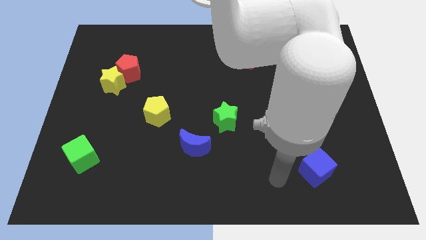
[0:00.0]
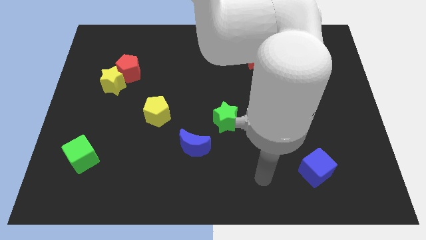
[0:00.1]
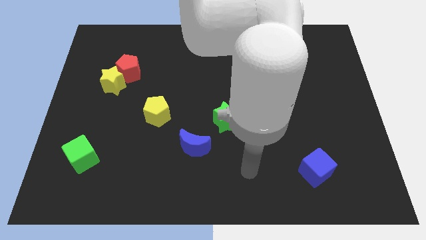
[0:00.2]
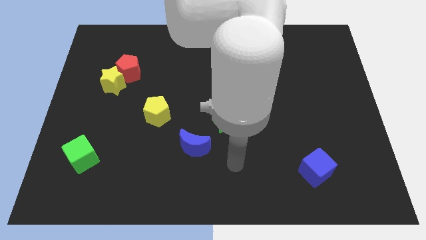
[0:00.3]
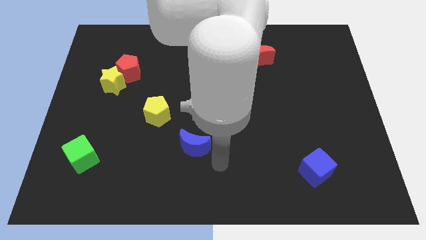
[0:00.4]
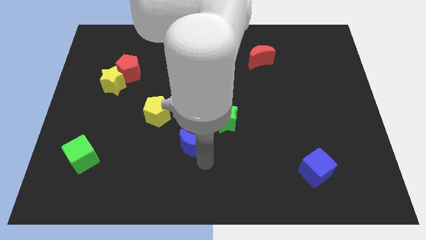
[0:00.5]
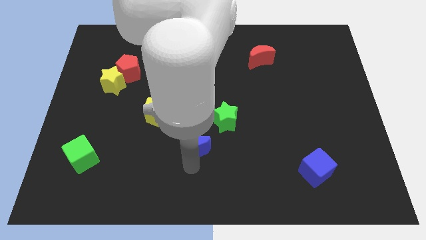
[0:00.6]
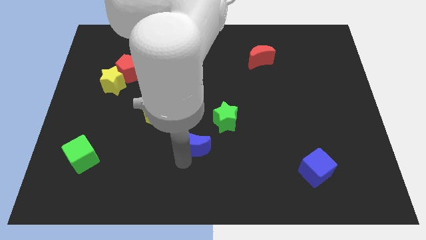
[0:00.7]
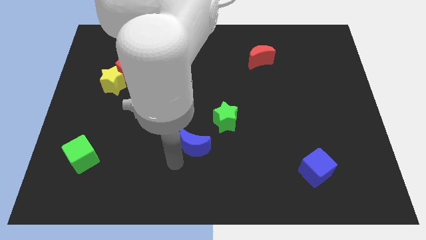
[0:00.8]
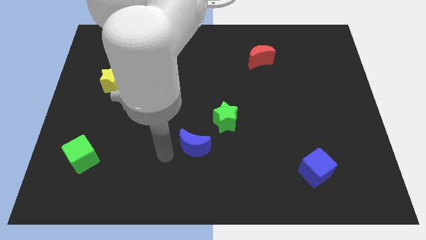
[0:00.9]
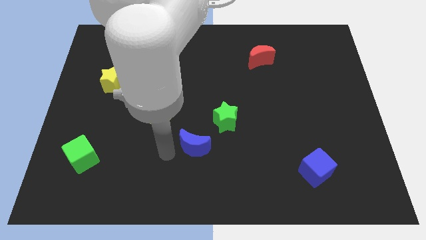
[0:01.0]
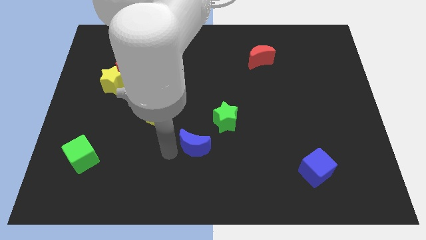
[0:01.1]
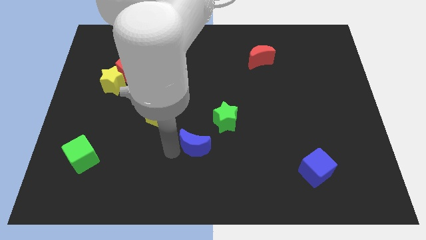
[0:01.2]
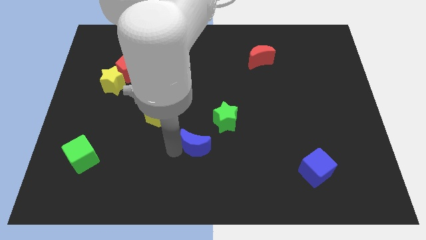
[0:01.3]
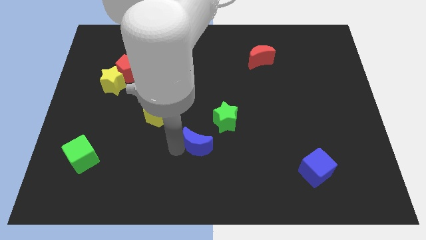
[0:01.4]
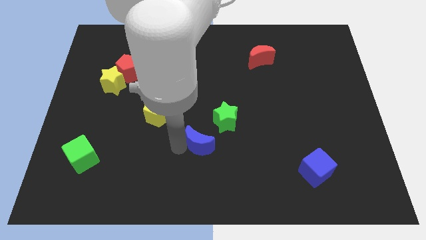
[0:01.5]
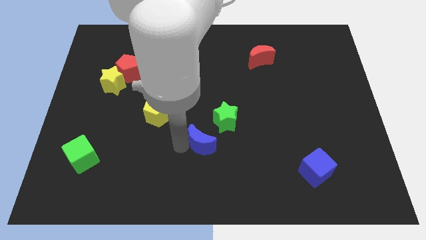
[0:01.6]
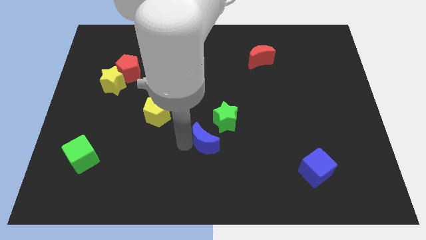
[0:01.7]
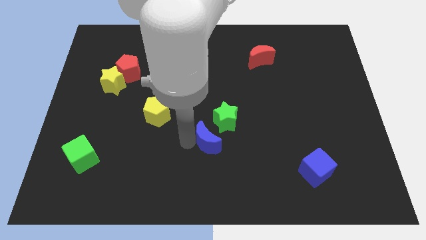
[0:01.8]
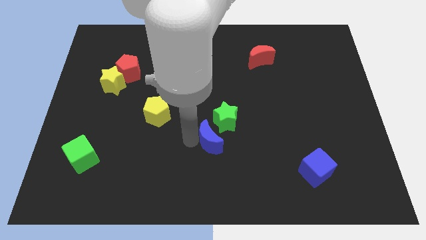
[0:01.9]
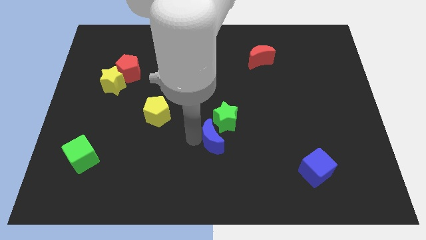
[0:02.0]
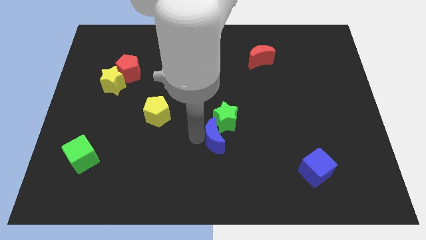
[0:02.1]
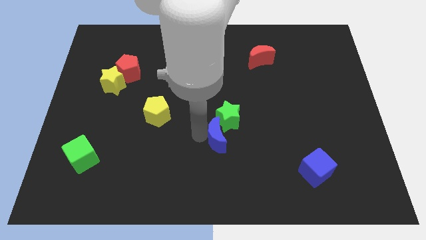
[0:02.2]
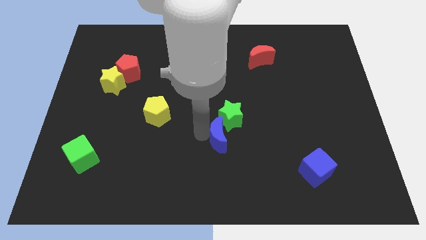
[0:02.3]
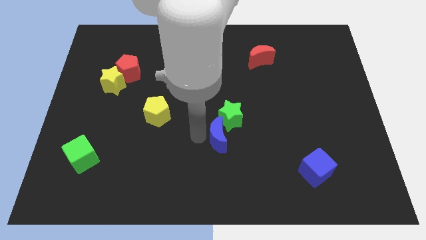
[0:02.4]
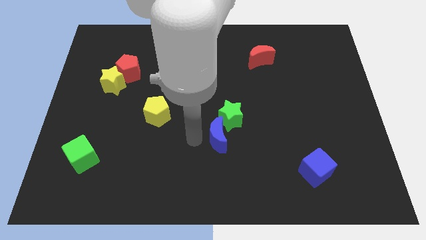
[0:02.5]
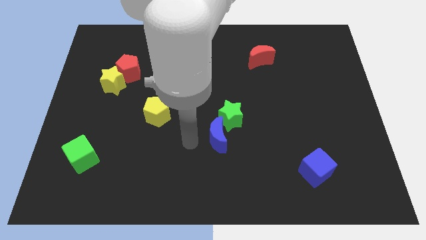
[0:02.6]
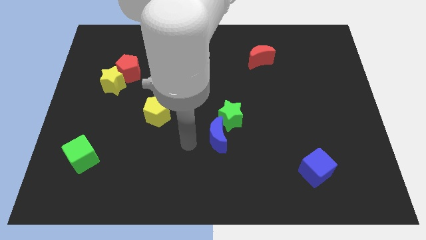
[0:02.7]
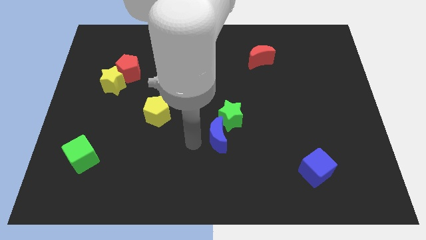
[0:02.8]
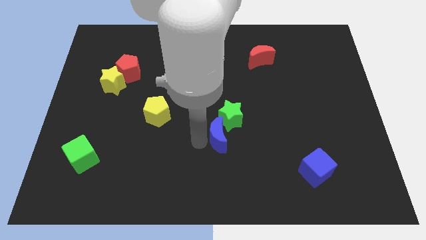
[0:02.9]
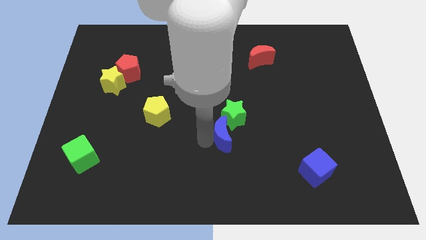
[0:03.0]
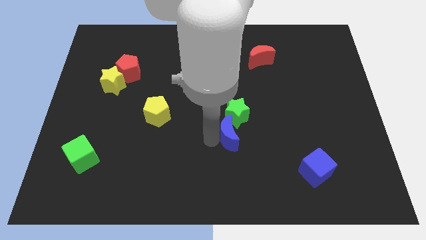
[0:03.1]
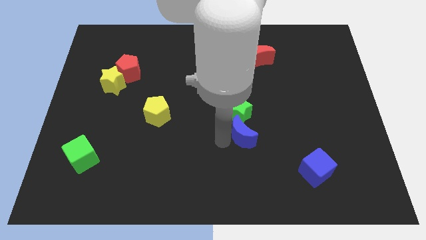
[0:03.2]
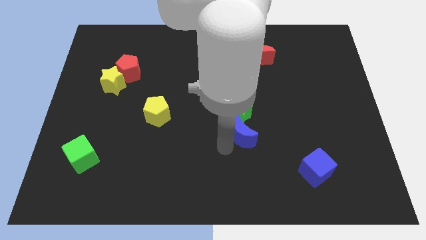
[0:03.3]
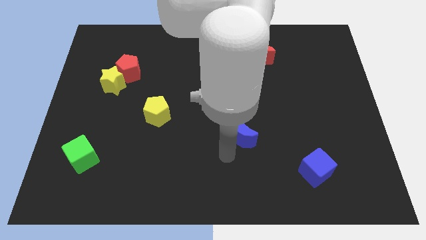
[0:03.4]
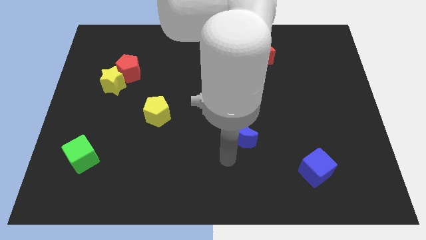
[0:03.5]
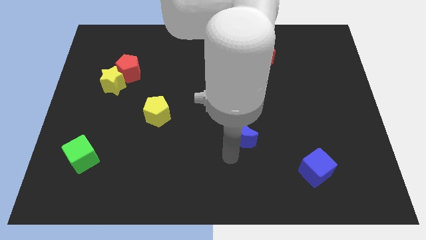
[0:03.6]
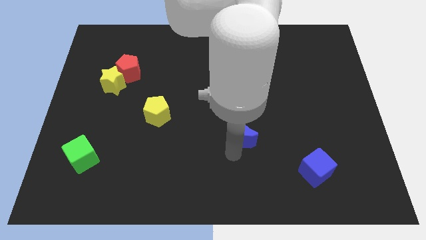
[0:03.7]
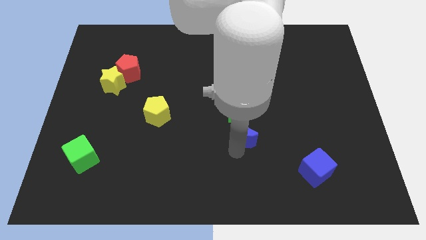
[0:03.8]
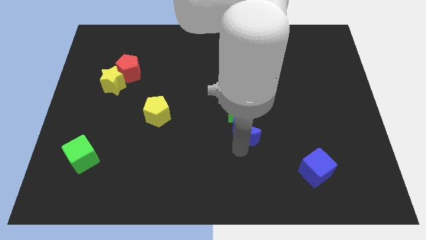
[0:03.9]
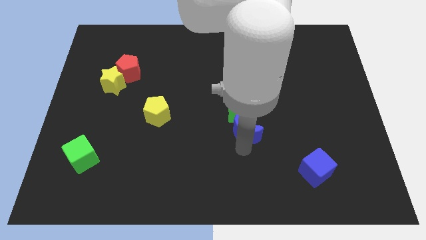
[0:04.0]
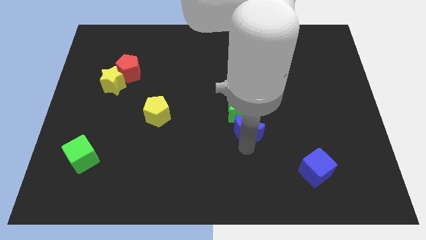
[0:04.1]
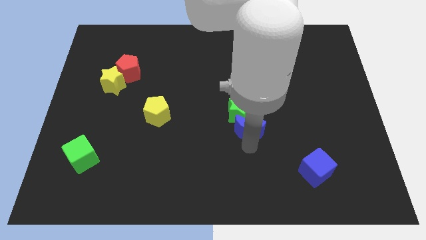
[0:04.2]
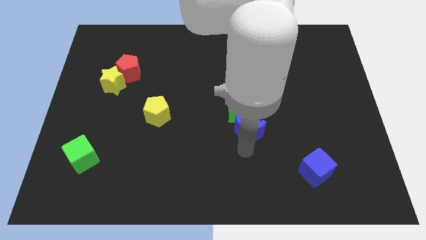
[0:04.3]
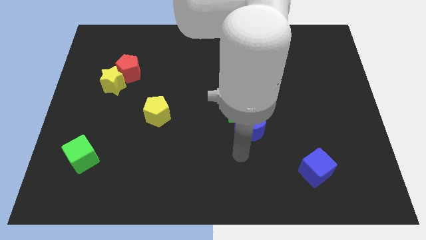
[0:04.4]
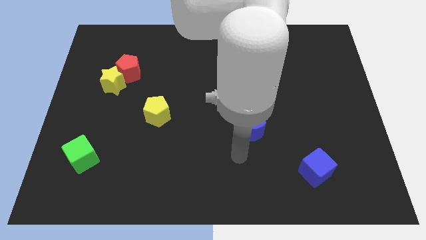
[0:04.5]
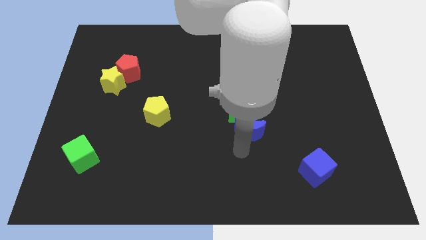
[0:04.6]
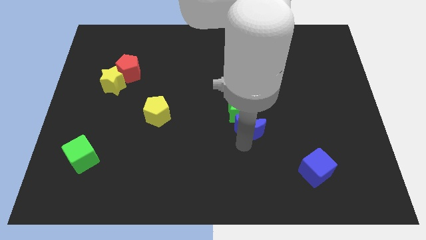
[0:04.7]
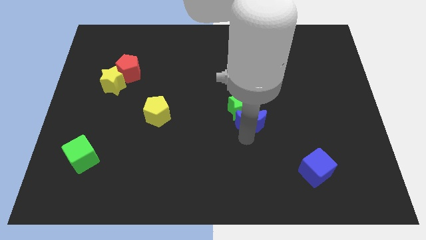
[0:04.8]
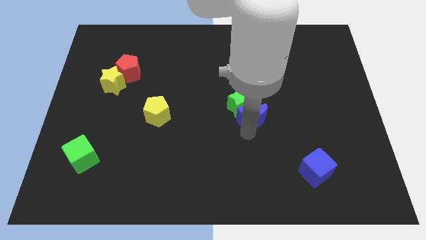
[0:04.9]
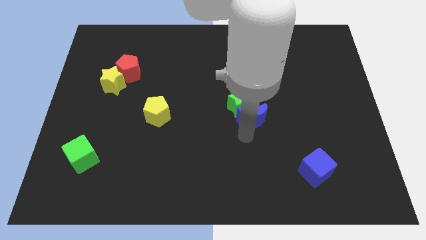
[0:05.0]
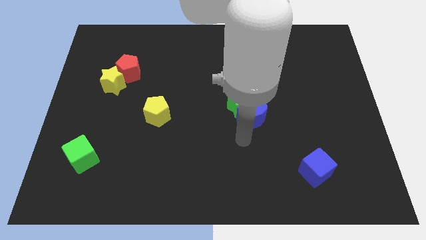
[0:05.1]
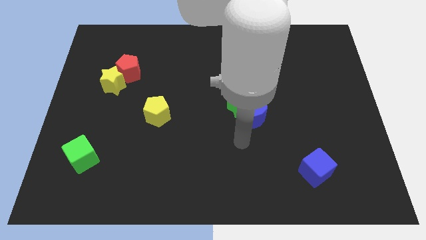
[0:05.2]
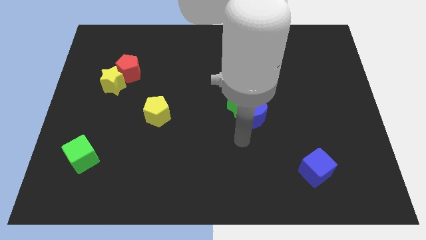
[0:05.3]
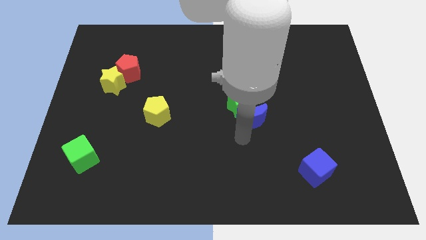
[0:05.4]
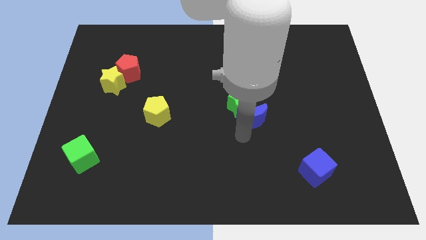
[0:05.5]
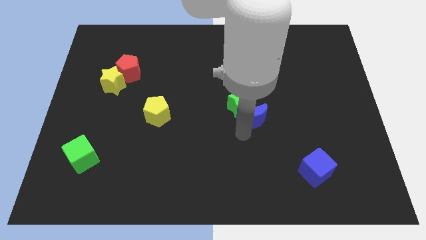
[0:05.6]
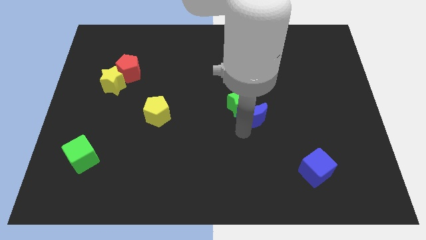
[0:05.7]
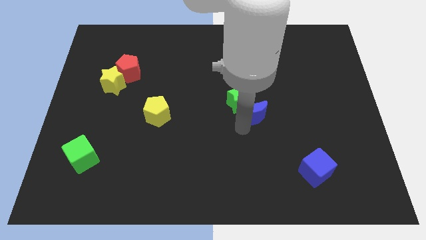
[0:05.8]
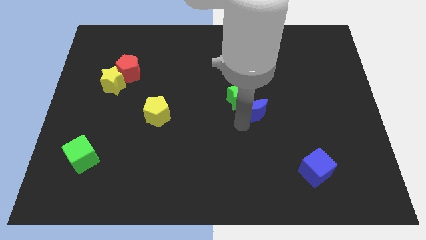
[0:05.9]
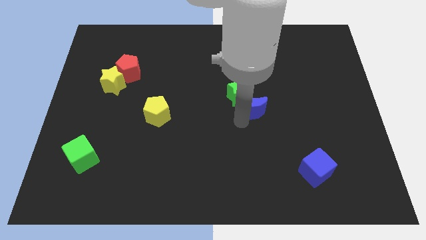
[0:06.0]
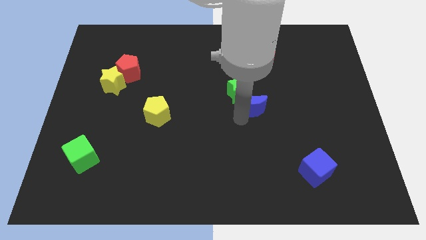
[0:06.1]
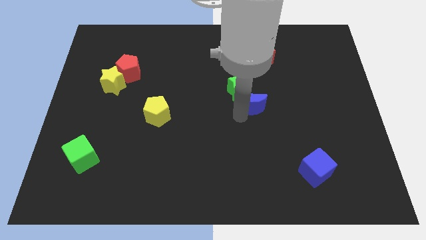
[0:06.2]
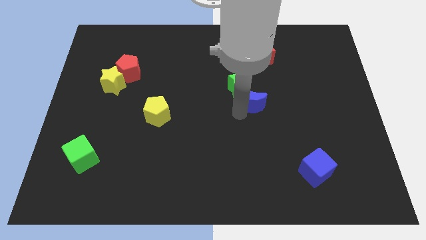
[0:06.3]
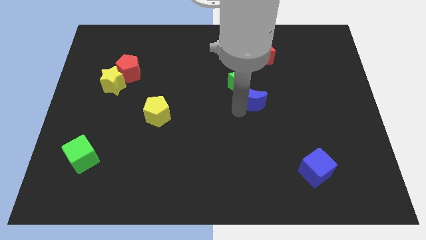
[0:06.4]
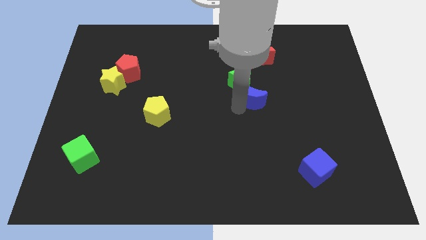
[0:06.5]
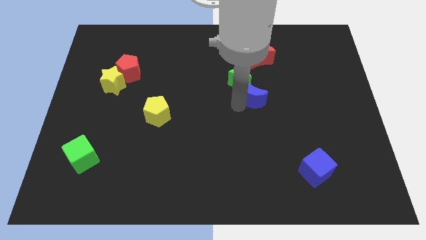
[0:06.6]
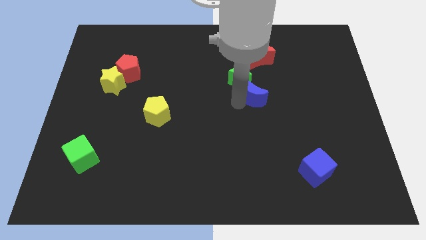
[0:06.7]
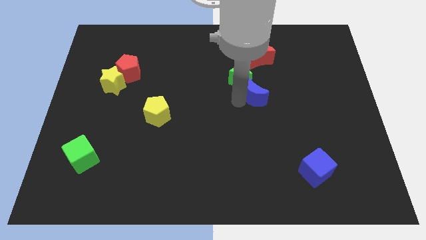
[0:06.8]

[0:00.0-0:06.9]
move the blue moon upwards and then right

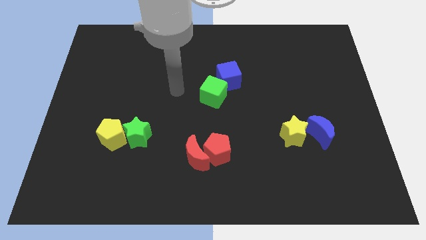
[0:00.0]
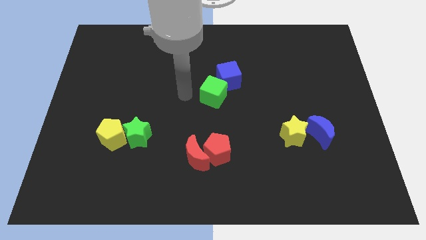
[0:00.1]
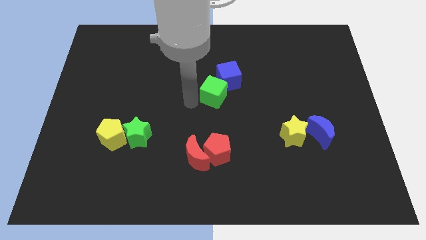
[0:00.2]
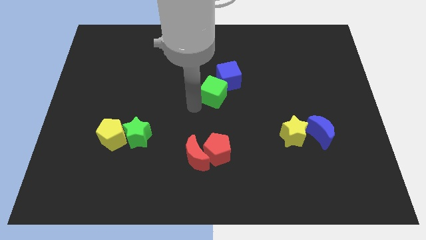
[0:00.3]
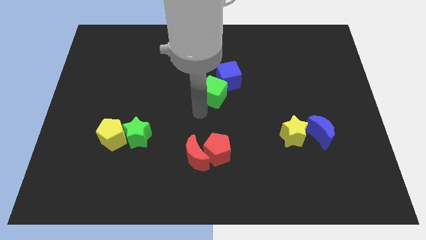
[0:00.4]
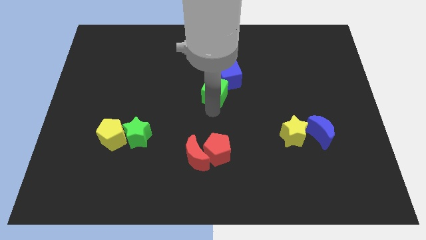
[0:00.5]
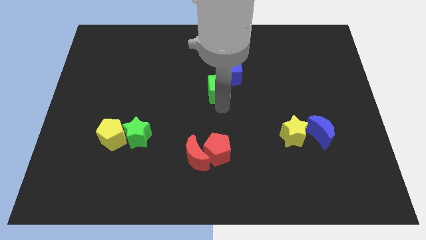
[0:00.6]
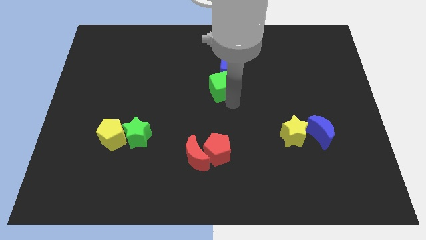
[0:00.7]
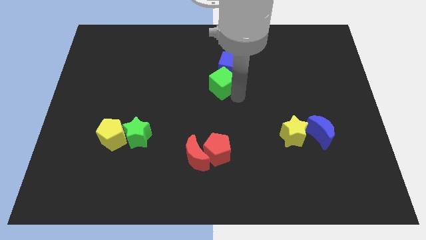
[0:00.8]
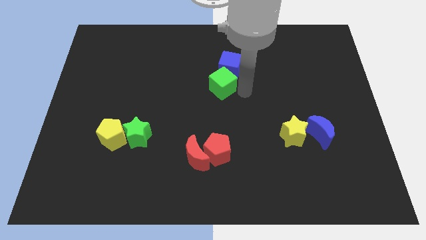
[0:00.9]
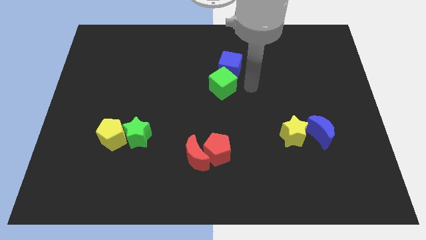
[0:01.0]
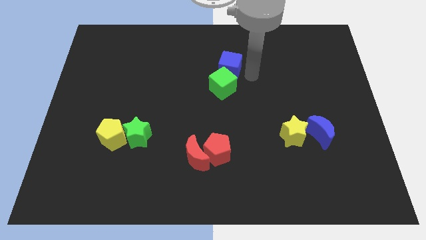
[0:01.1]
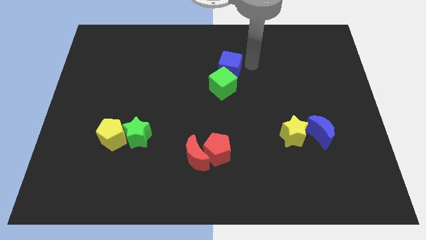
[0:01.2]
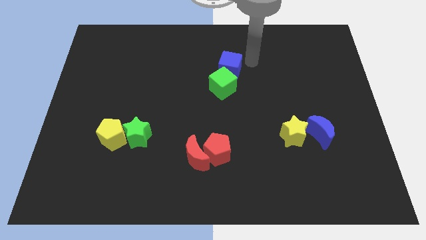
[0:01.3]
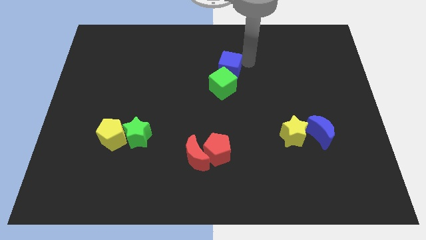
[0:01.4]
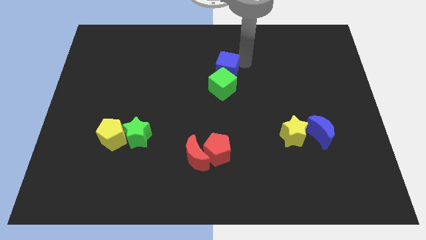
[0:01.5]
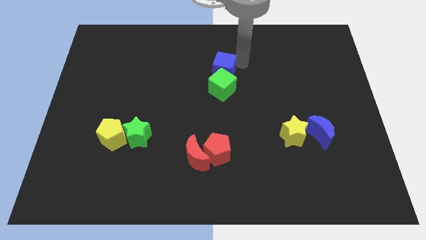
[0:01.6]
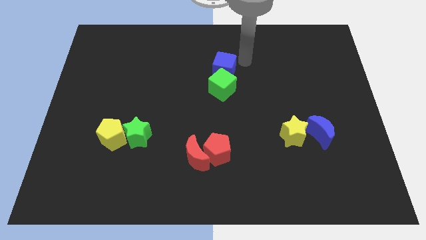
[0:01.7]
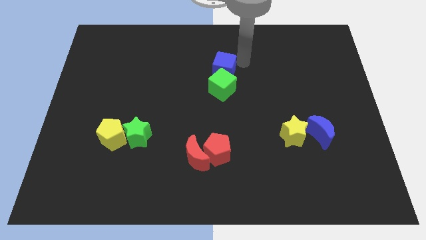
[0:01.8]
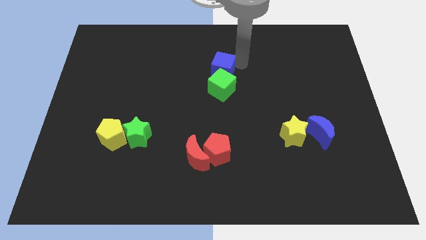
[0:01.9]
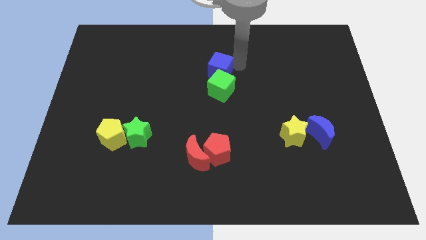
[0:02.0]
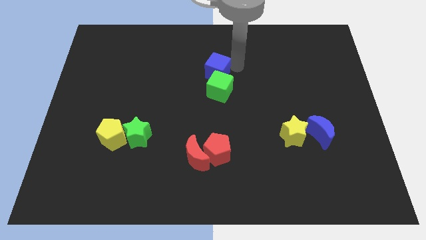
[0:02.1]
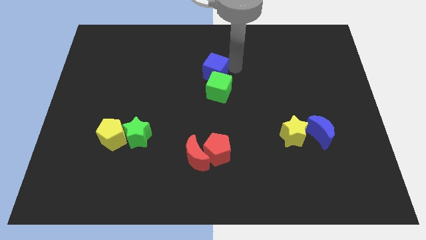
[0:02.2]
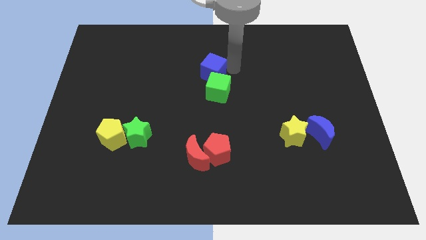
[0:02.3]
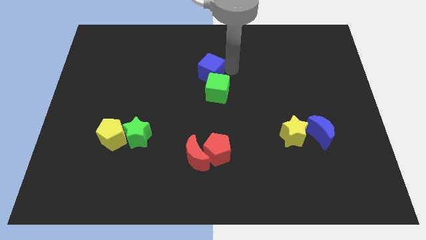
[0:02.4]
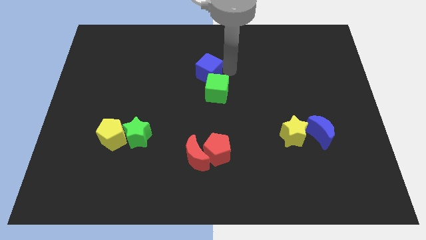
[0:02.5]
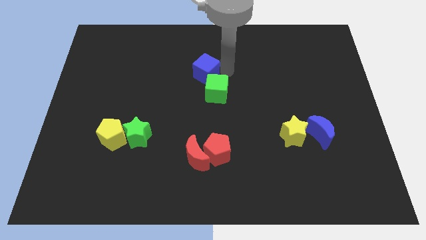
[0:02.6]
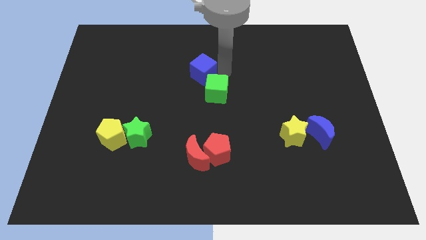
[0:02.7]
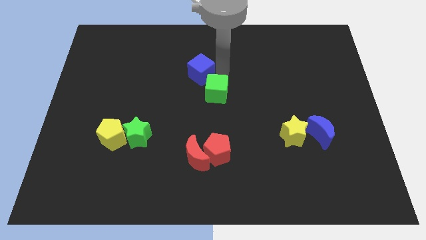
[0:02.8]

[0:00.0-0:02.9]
slide the blue cube left slightly
